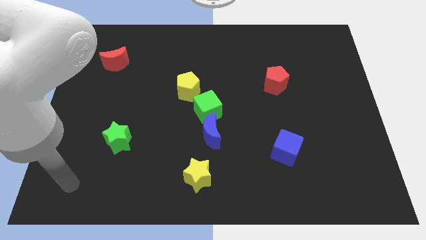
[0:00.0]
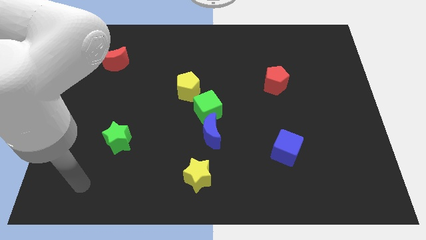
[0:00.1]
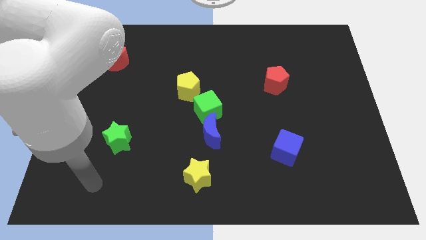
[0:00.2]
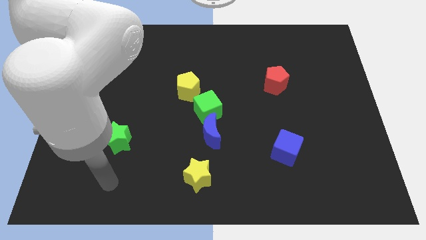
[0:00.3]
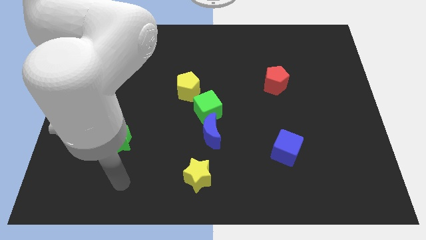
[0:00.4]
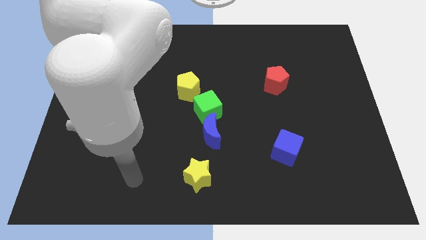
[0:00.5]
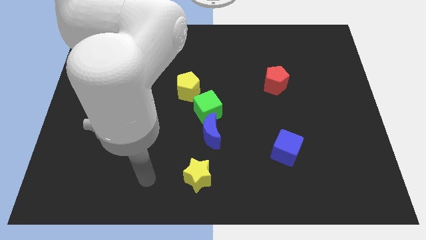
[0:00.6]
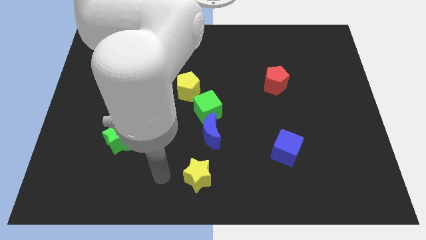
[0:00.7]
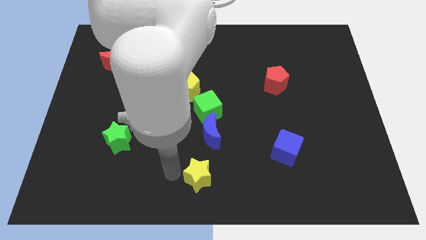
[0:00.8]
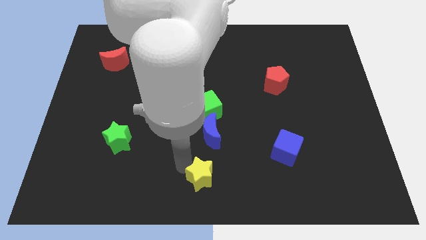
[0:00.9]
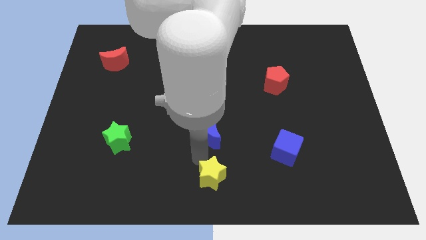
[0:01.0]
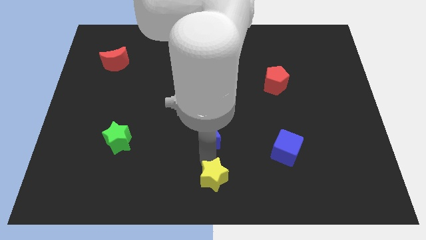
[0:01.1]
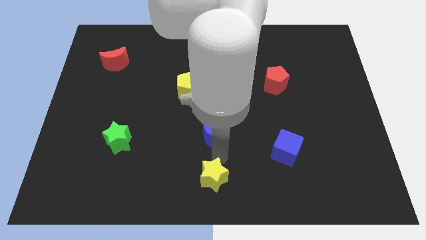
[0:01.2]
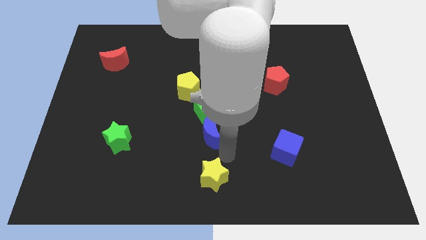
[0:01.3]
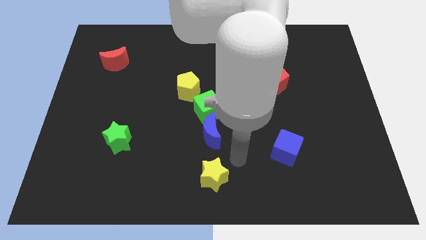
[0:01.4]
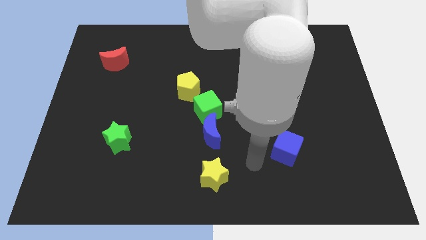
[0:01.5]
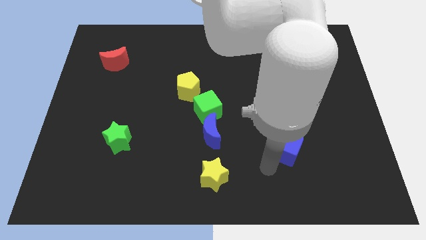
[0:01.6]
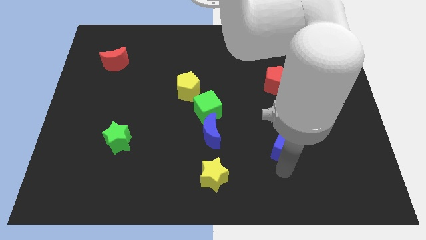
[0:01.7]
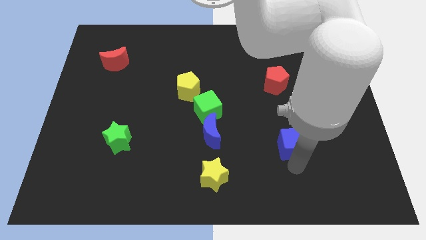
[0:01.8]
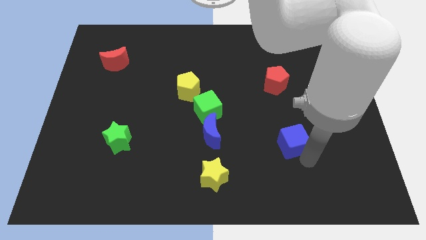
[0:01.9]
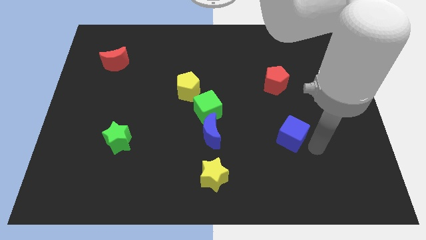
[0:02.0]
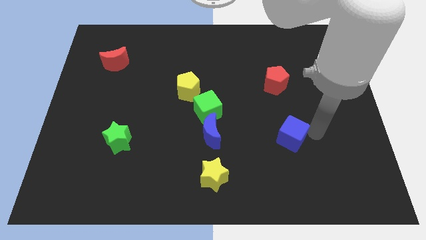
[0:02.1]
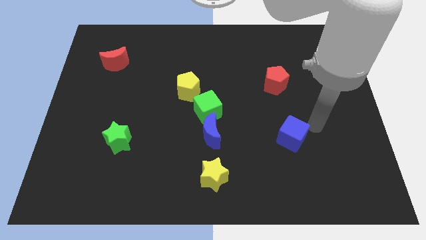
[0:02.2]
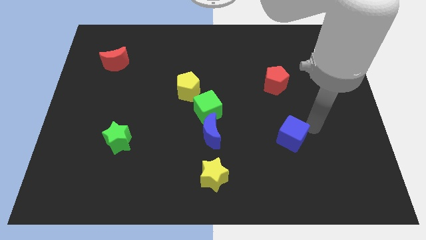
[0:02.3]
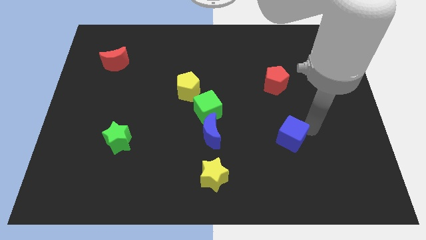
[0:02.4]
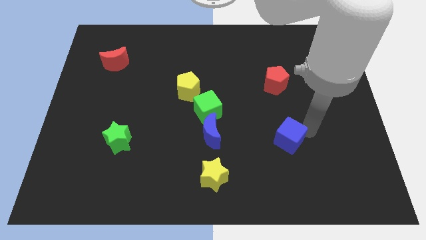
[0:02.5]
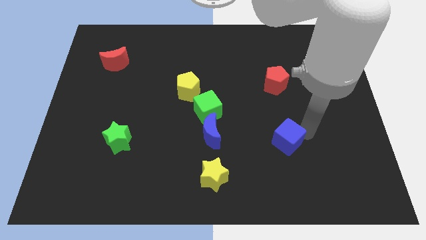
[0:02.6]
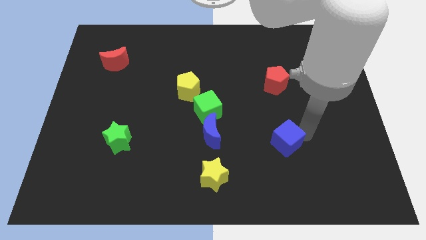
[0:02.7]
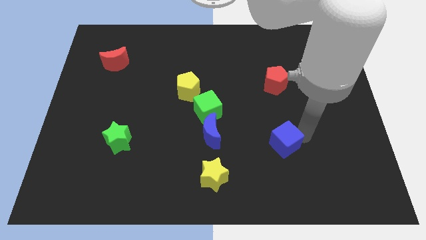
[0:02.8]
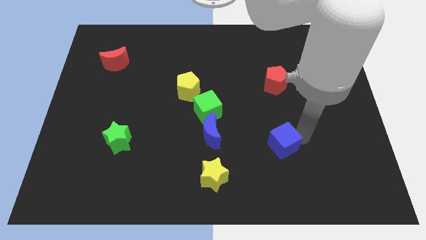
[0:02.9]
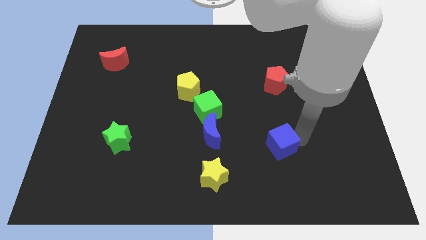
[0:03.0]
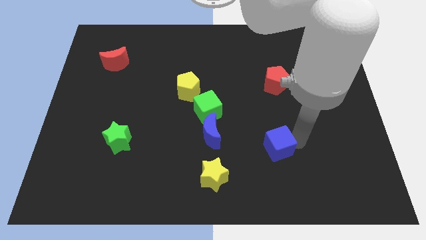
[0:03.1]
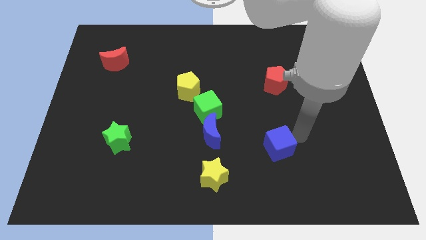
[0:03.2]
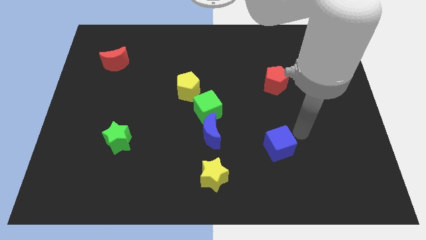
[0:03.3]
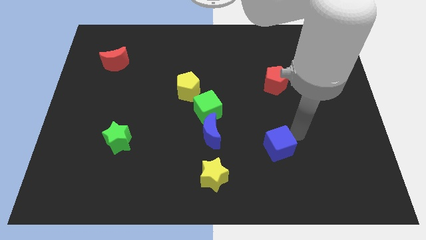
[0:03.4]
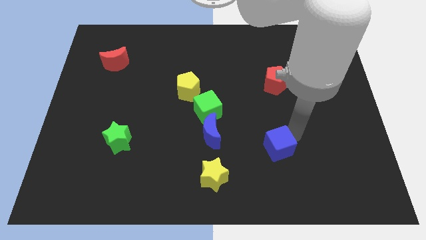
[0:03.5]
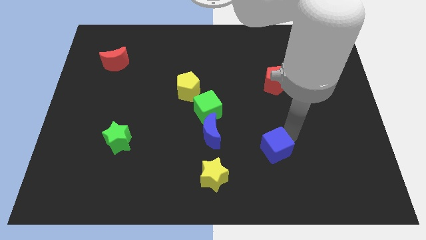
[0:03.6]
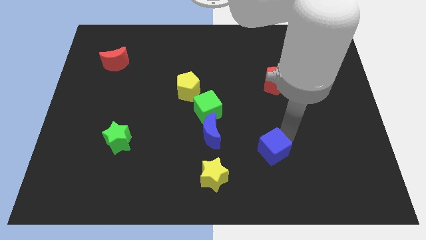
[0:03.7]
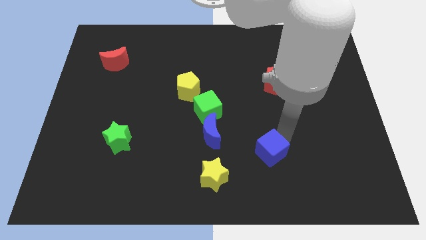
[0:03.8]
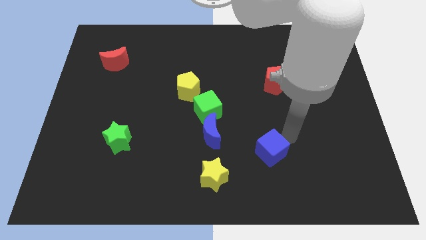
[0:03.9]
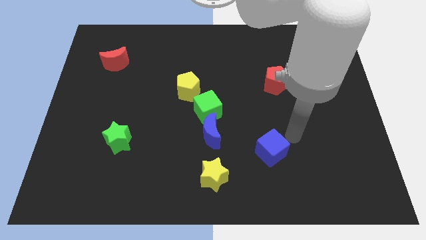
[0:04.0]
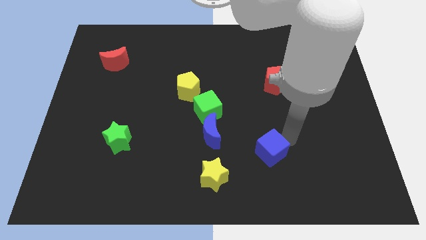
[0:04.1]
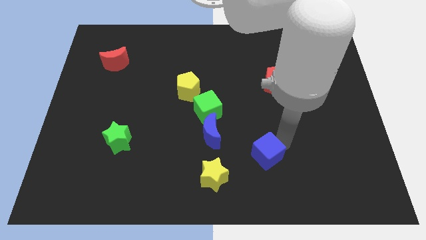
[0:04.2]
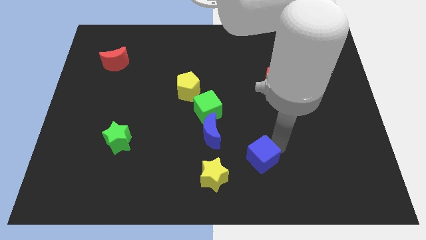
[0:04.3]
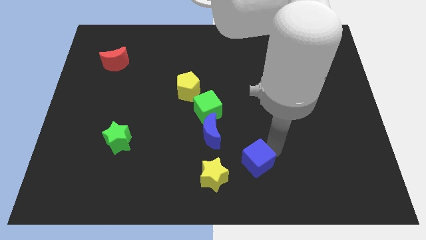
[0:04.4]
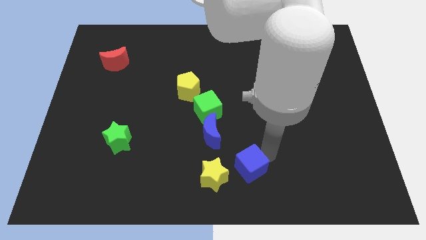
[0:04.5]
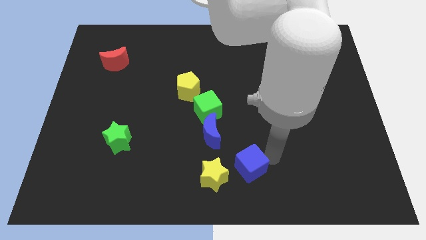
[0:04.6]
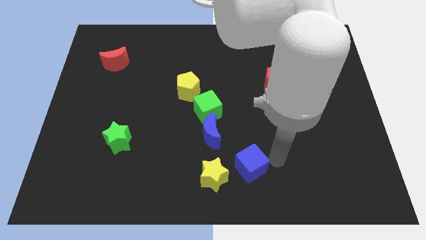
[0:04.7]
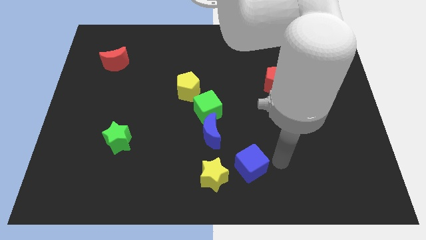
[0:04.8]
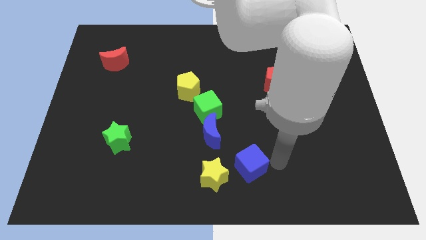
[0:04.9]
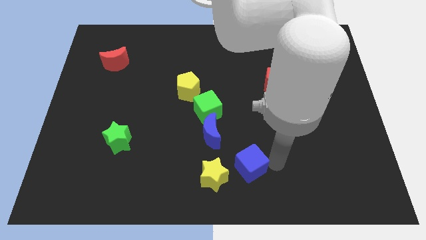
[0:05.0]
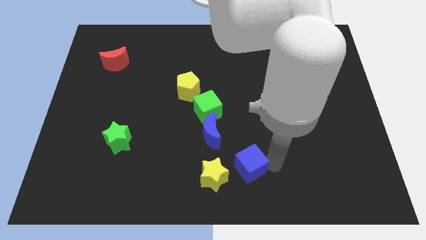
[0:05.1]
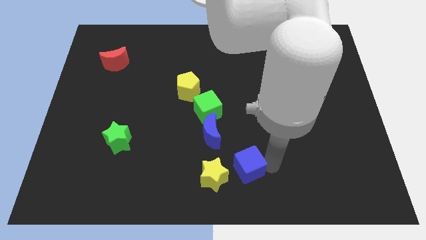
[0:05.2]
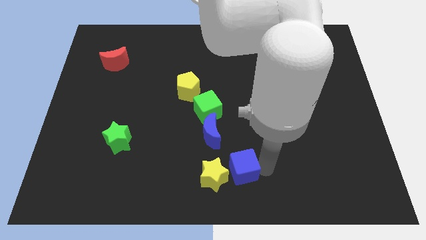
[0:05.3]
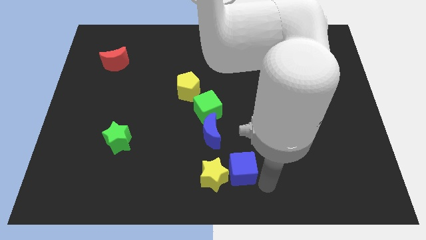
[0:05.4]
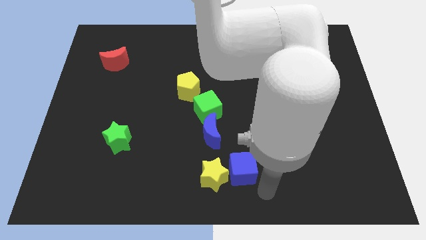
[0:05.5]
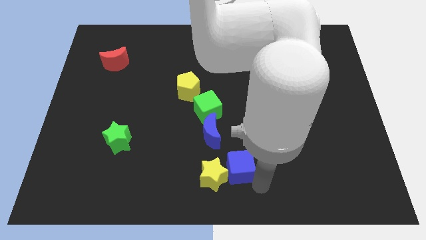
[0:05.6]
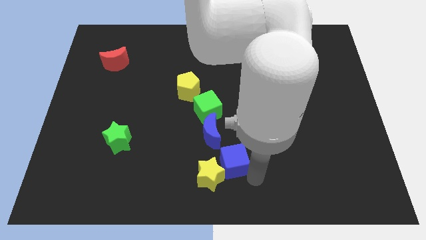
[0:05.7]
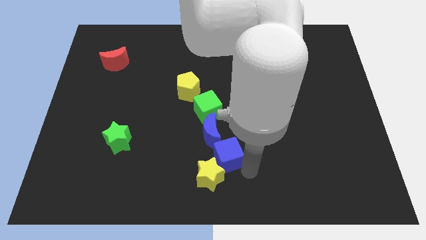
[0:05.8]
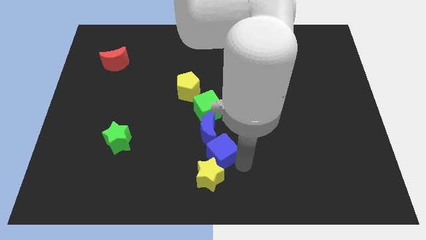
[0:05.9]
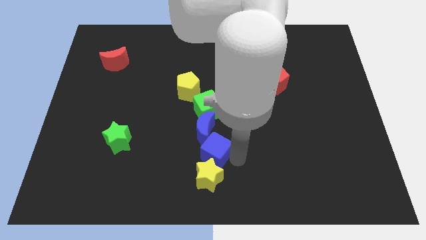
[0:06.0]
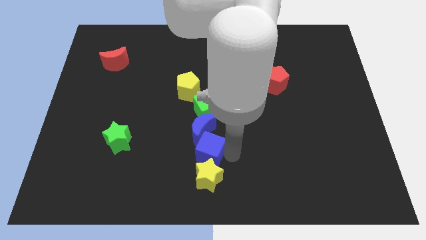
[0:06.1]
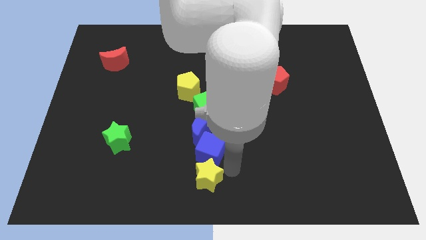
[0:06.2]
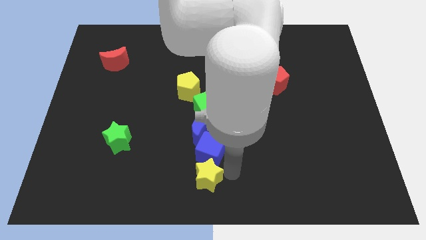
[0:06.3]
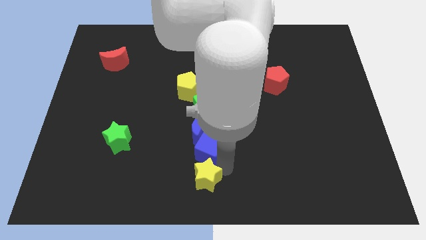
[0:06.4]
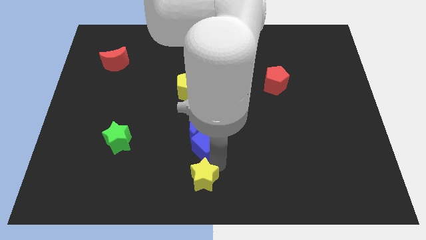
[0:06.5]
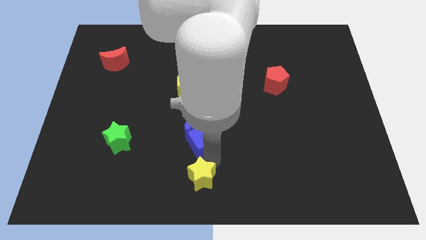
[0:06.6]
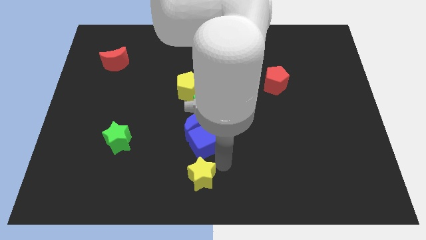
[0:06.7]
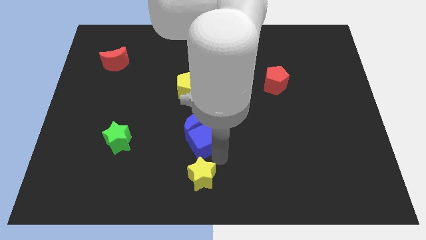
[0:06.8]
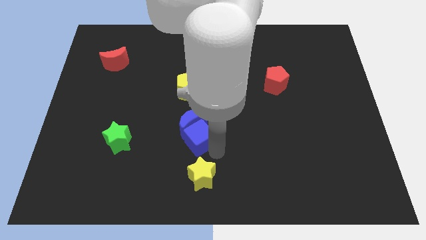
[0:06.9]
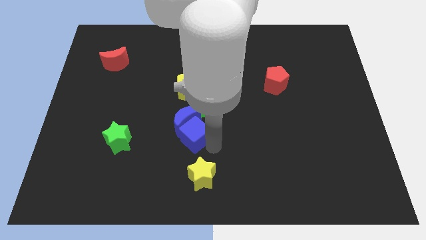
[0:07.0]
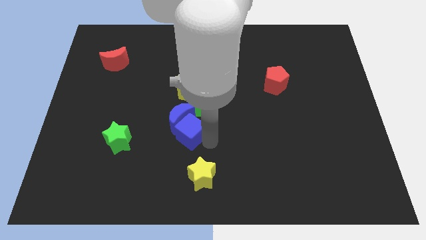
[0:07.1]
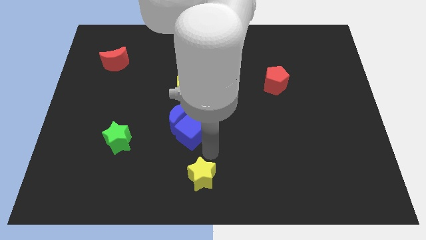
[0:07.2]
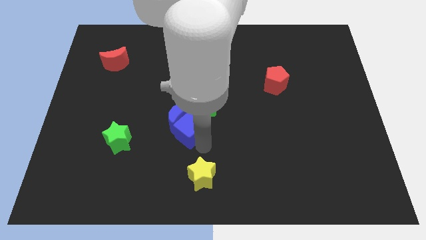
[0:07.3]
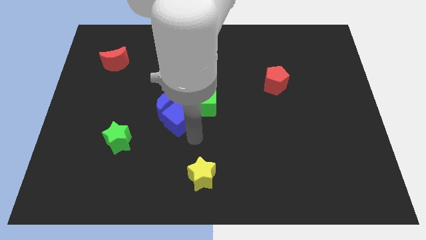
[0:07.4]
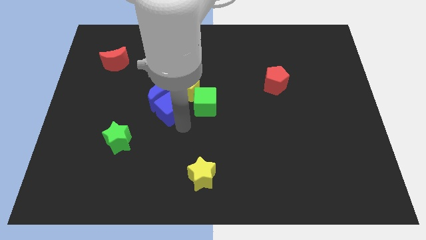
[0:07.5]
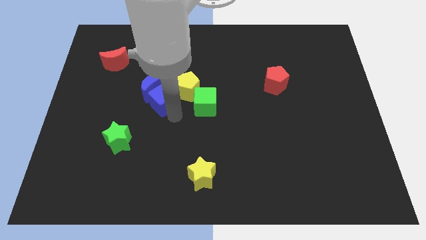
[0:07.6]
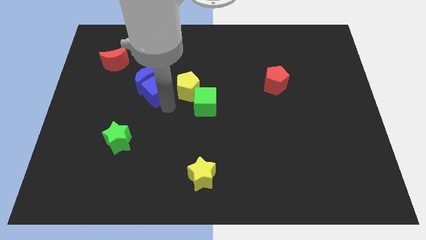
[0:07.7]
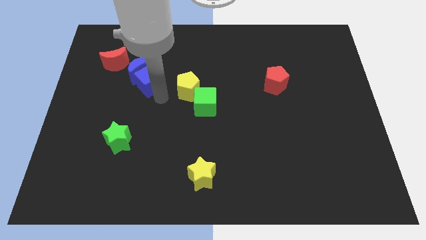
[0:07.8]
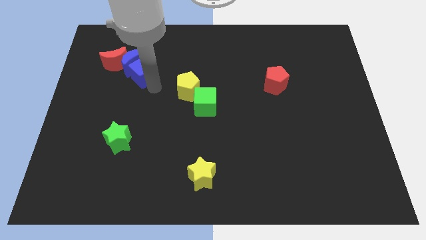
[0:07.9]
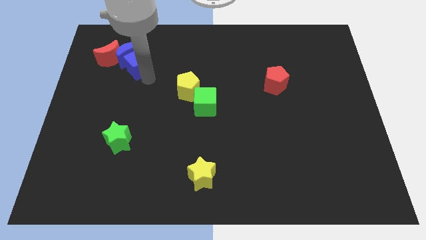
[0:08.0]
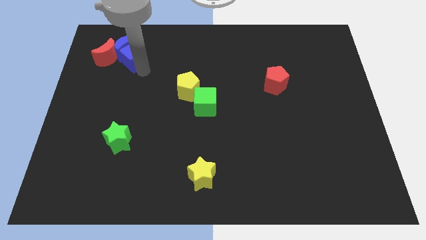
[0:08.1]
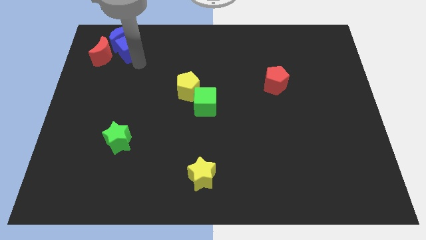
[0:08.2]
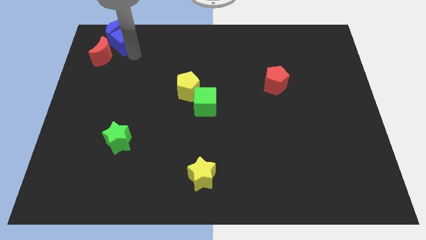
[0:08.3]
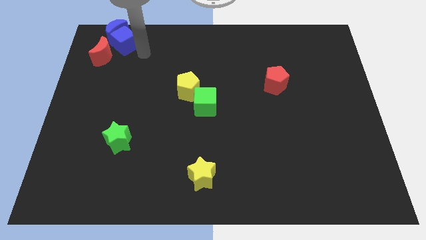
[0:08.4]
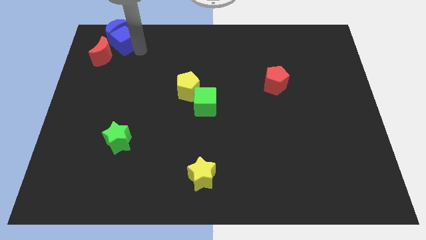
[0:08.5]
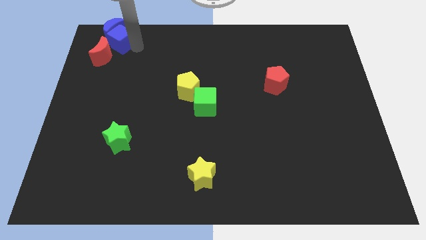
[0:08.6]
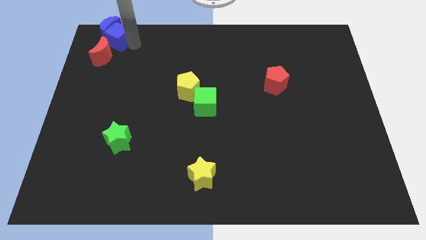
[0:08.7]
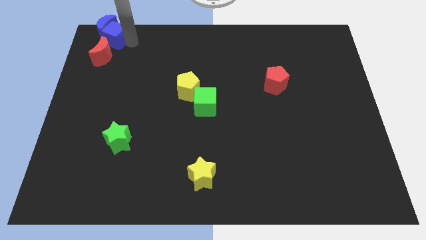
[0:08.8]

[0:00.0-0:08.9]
slide the blue cube to the top left of the board
